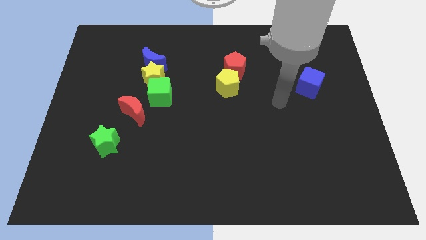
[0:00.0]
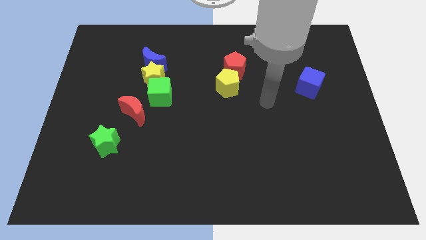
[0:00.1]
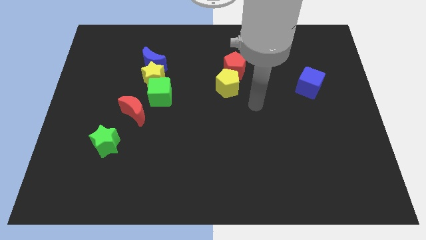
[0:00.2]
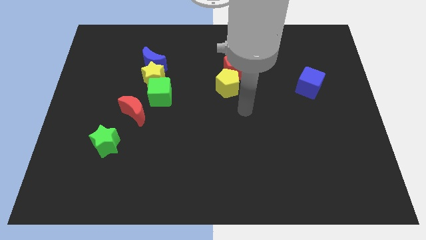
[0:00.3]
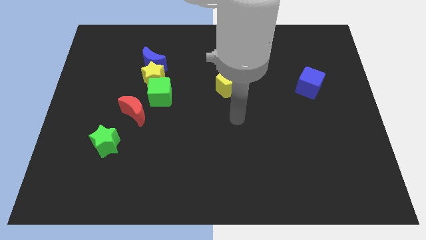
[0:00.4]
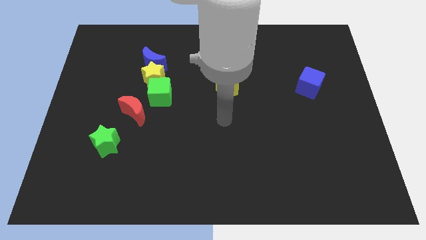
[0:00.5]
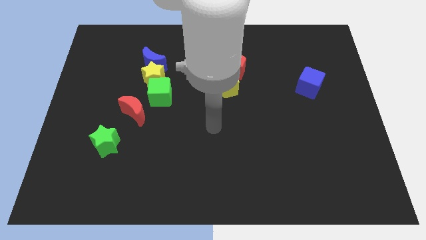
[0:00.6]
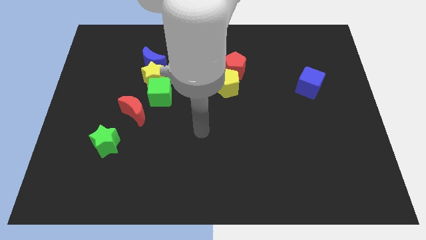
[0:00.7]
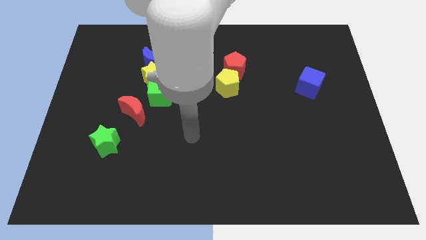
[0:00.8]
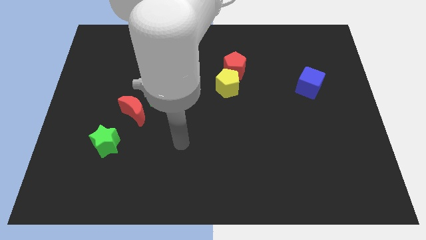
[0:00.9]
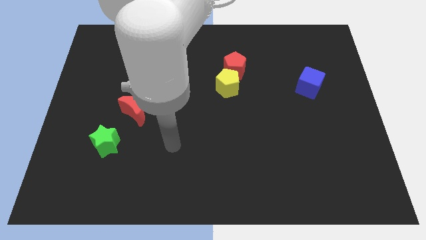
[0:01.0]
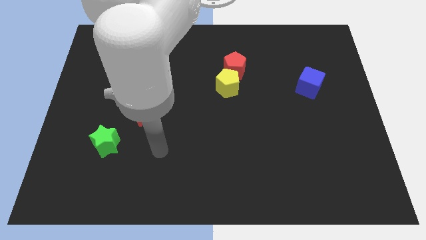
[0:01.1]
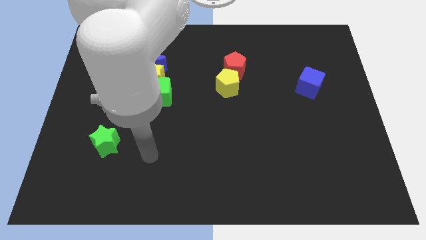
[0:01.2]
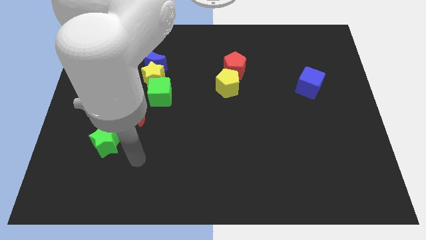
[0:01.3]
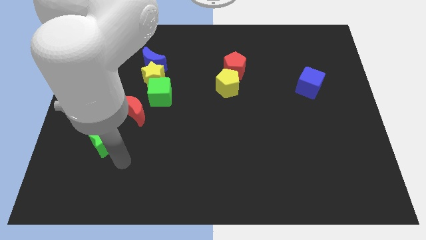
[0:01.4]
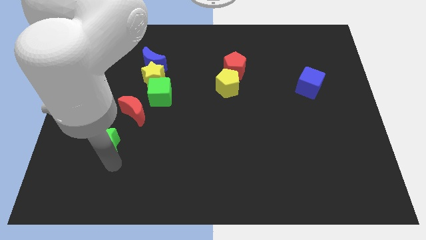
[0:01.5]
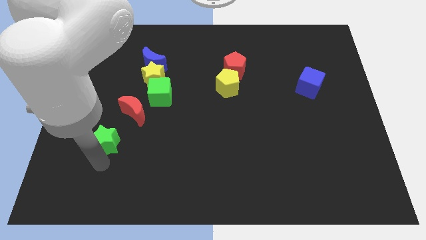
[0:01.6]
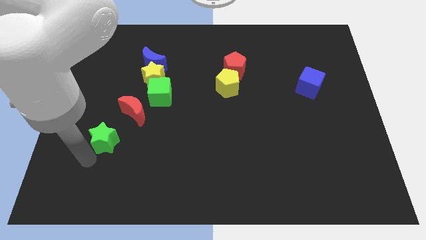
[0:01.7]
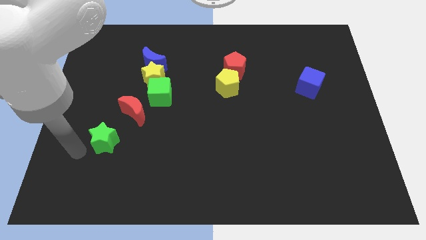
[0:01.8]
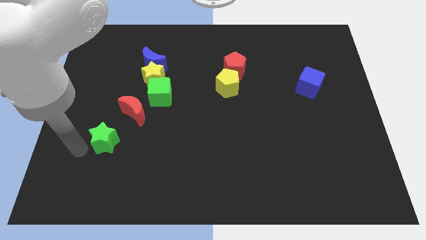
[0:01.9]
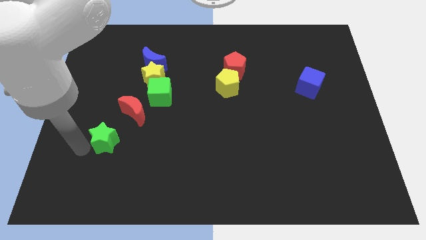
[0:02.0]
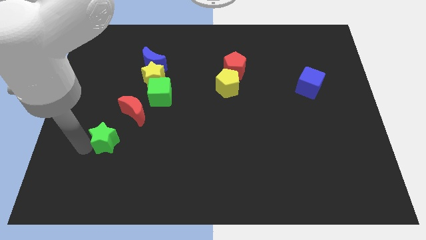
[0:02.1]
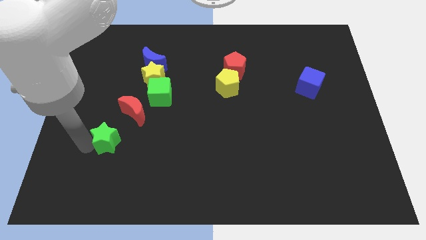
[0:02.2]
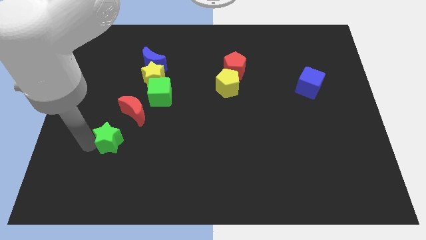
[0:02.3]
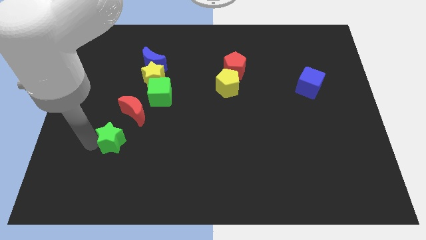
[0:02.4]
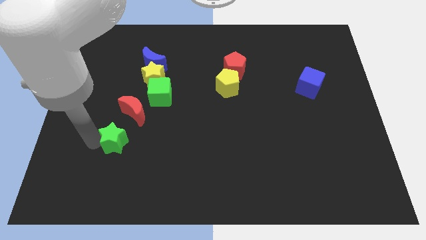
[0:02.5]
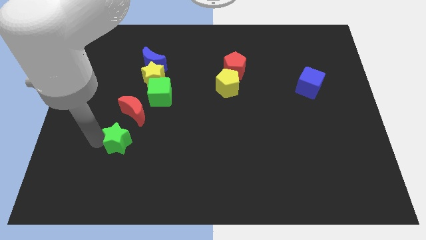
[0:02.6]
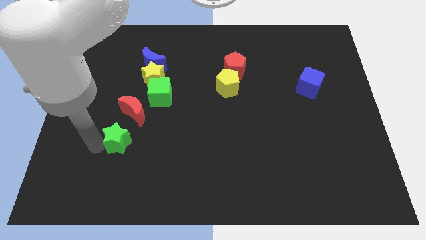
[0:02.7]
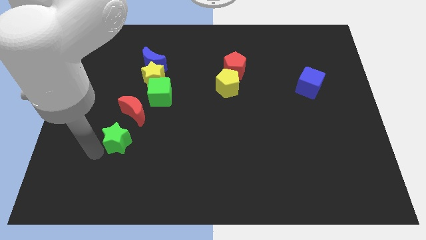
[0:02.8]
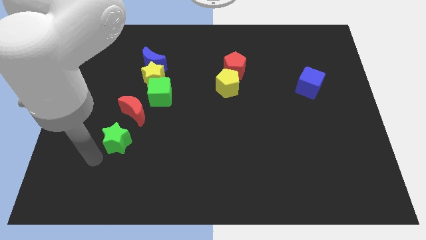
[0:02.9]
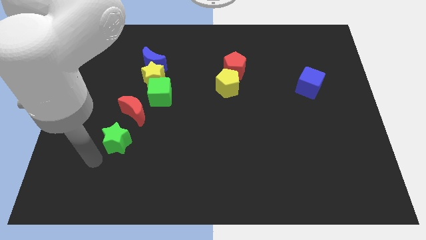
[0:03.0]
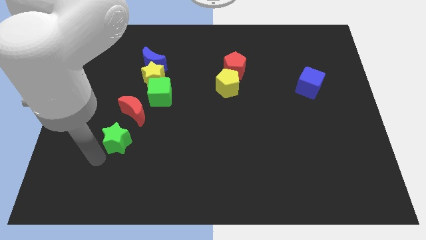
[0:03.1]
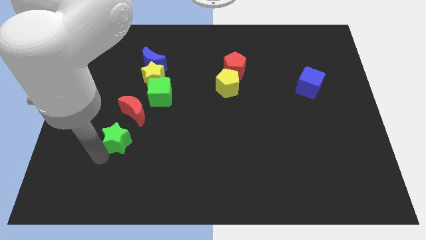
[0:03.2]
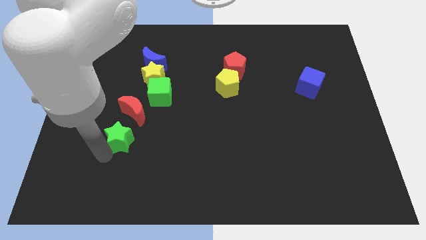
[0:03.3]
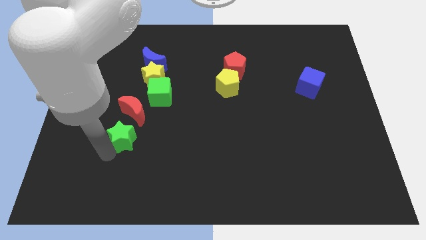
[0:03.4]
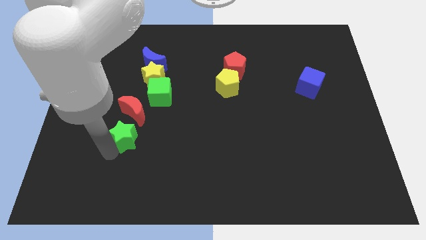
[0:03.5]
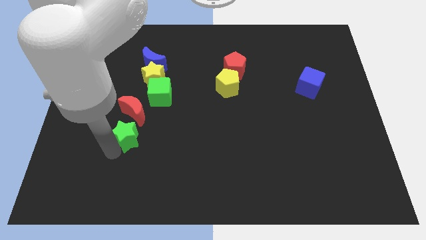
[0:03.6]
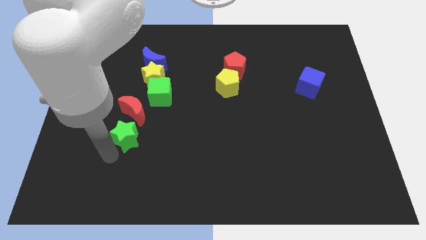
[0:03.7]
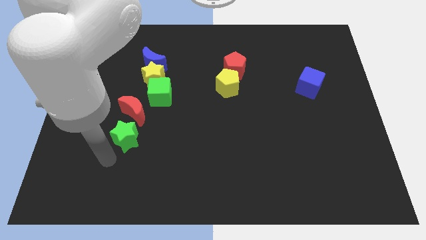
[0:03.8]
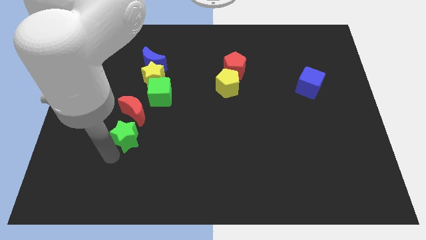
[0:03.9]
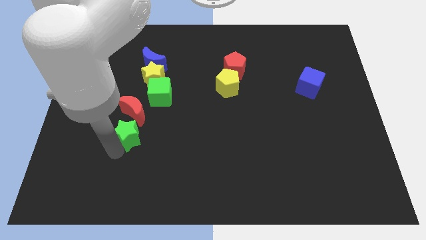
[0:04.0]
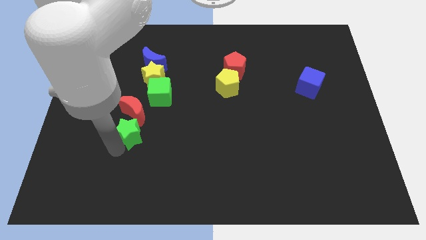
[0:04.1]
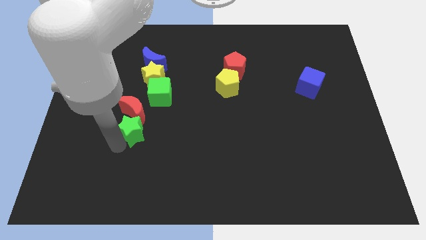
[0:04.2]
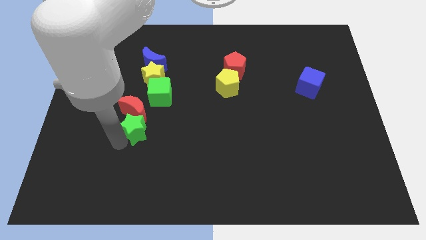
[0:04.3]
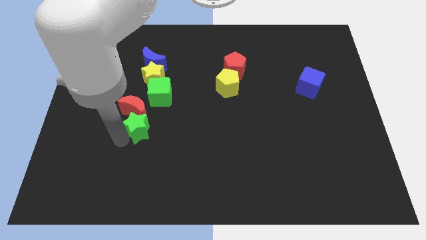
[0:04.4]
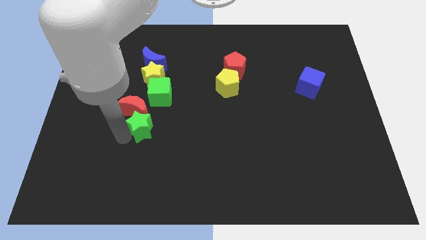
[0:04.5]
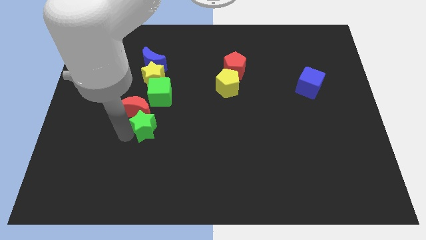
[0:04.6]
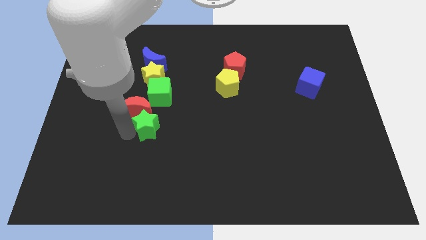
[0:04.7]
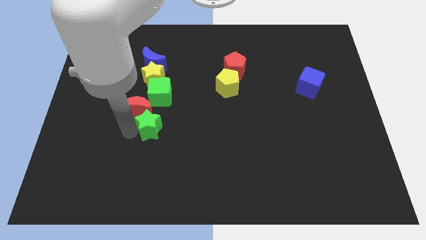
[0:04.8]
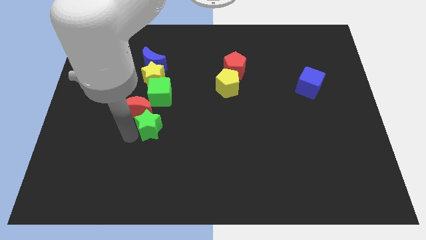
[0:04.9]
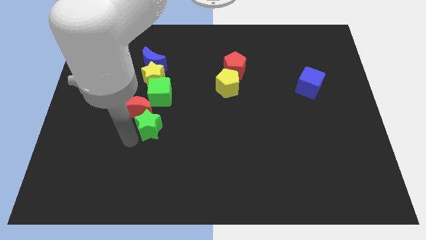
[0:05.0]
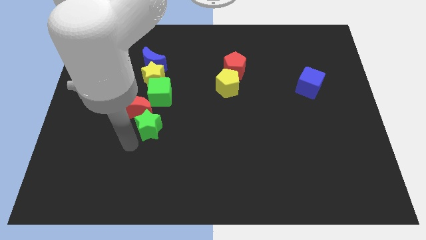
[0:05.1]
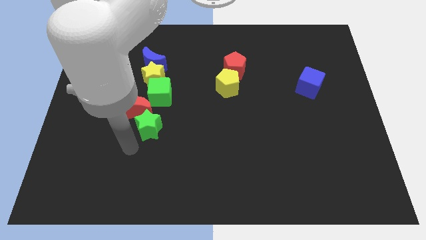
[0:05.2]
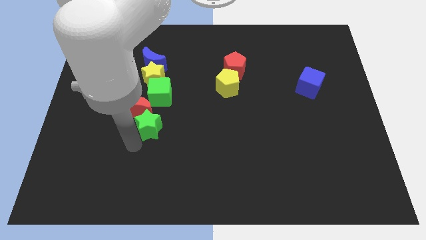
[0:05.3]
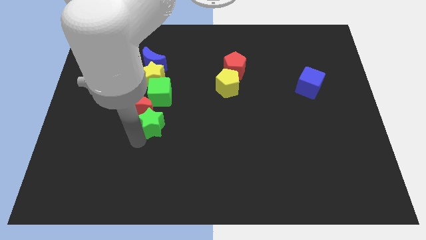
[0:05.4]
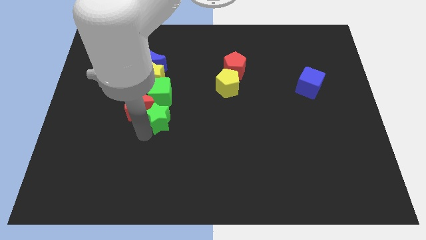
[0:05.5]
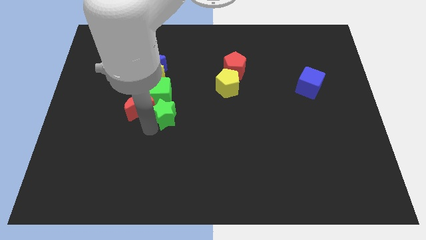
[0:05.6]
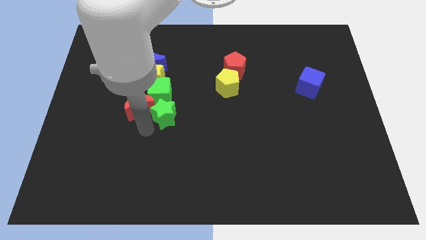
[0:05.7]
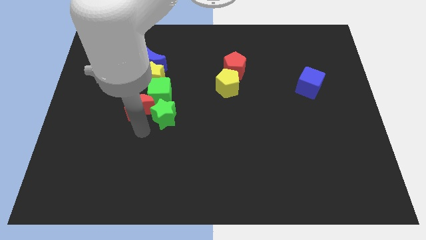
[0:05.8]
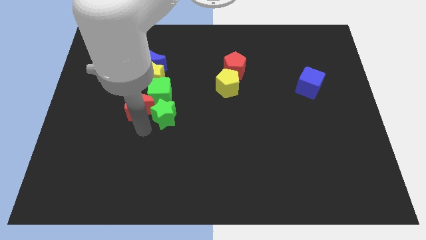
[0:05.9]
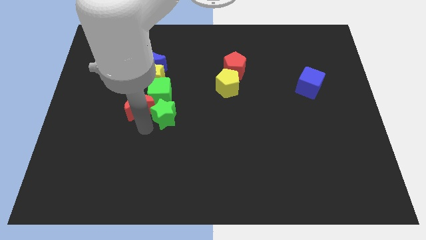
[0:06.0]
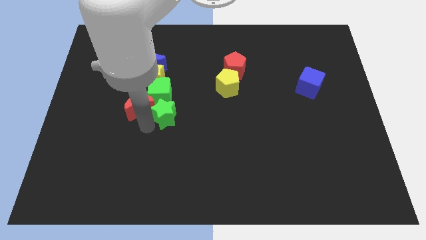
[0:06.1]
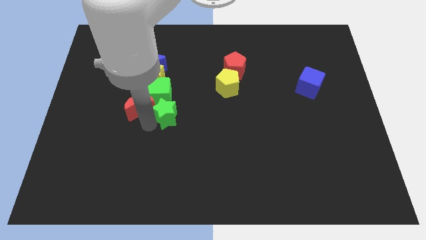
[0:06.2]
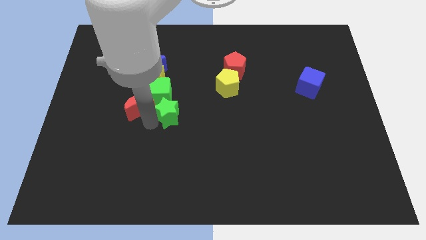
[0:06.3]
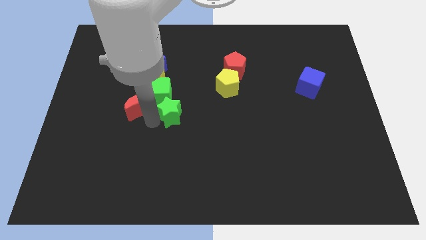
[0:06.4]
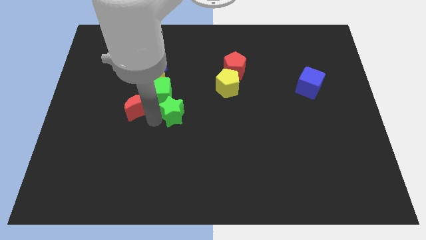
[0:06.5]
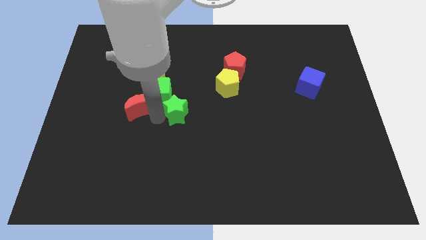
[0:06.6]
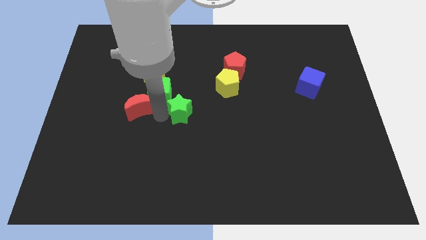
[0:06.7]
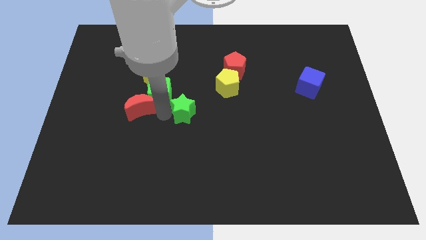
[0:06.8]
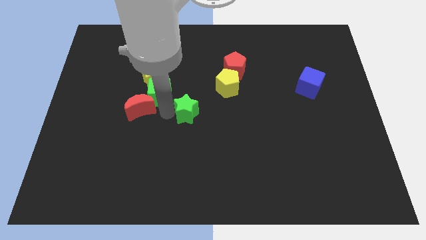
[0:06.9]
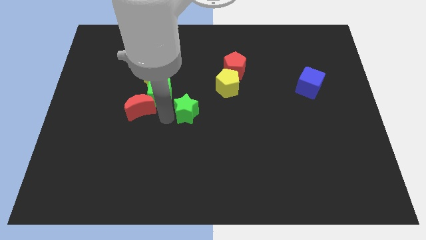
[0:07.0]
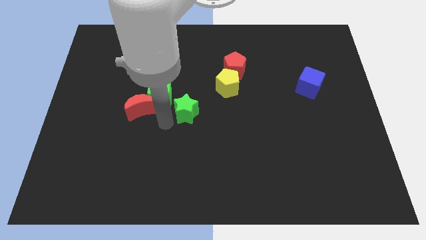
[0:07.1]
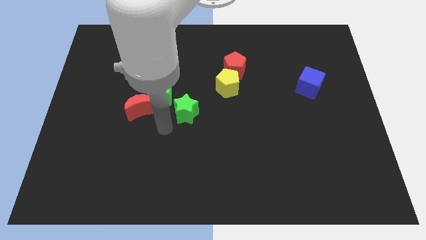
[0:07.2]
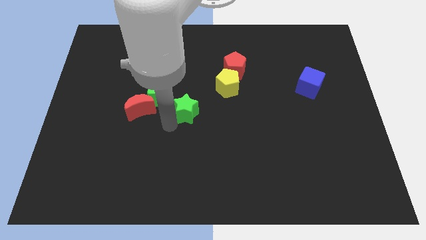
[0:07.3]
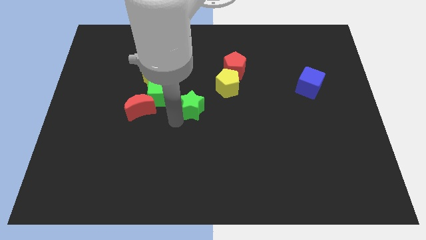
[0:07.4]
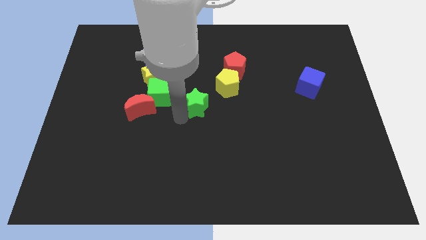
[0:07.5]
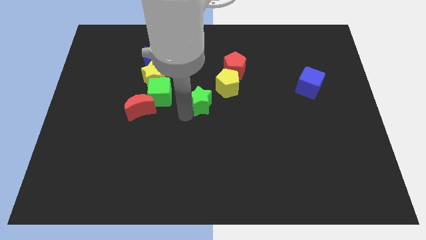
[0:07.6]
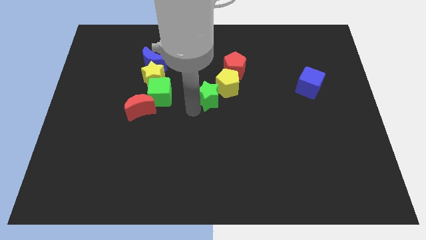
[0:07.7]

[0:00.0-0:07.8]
move the green star next to the yellow pentagon
